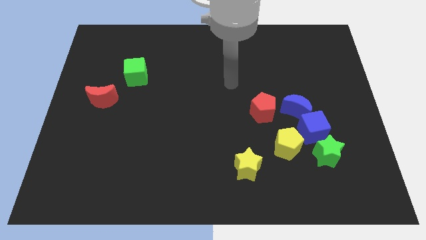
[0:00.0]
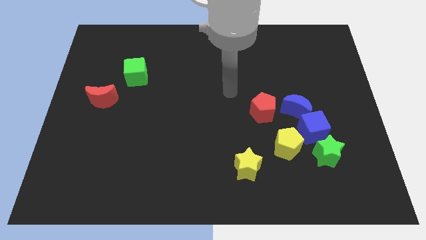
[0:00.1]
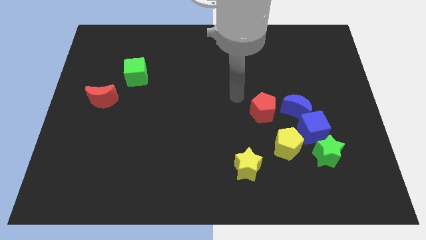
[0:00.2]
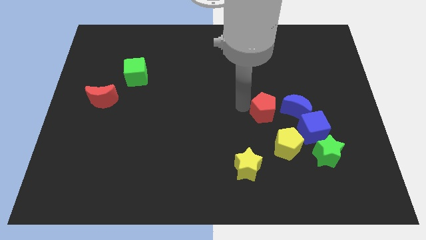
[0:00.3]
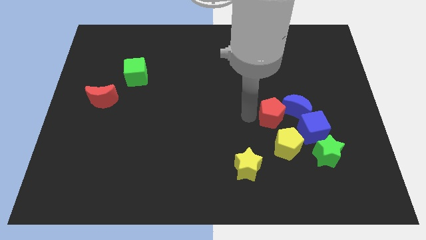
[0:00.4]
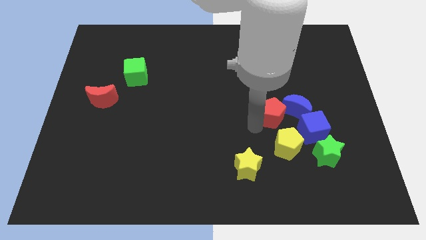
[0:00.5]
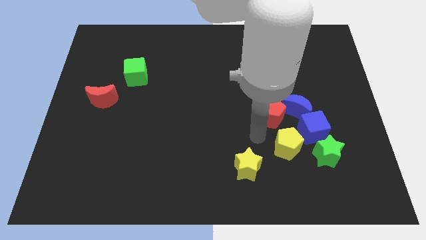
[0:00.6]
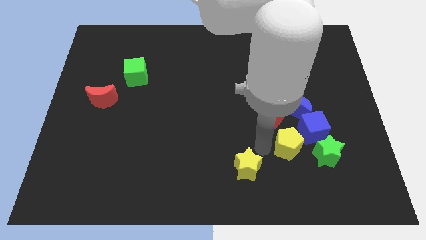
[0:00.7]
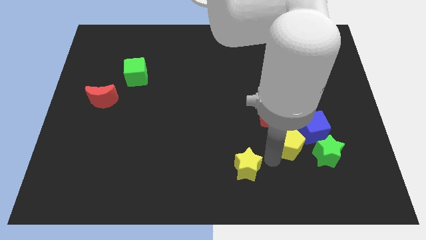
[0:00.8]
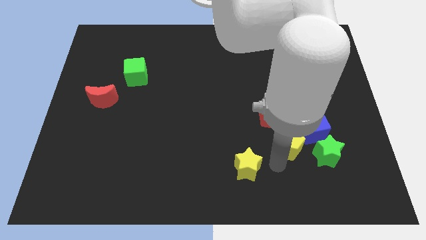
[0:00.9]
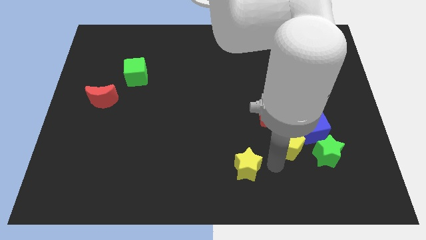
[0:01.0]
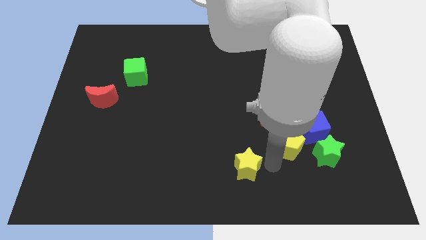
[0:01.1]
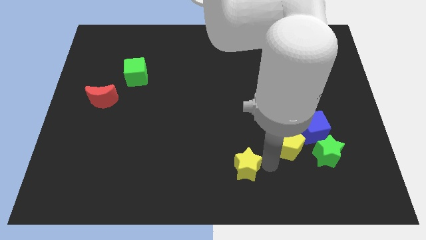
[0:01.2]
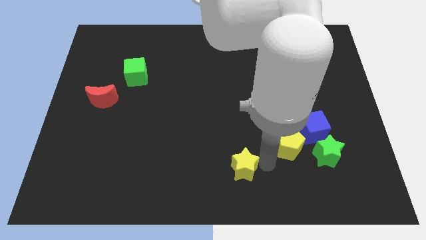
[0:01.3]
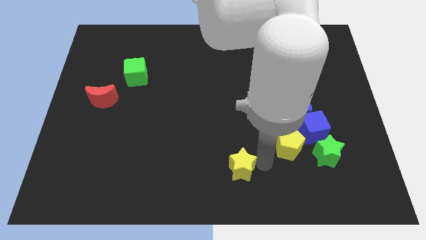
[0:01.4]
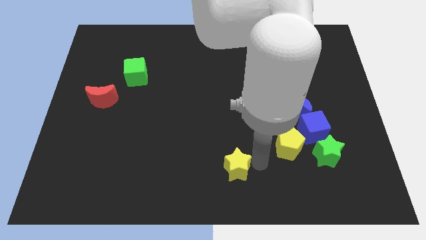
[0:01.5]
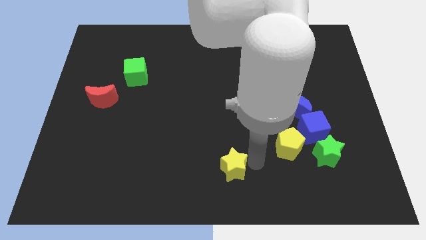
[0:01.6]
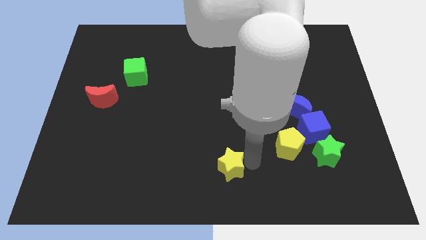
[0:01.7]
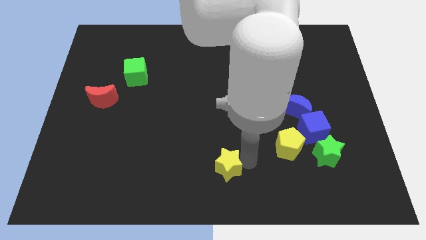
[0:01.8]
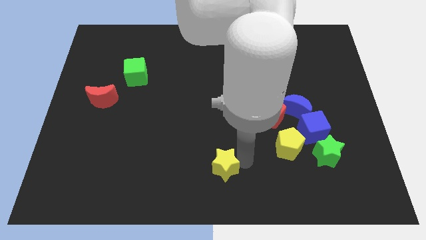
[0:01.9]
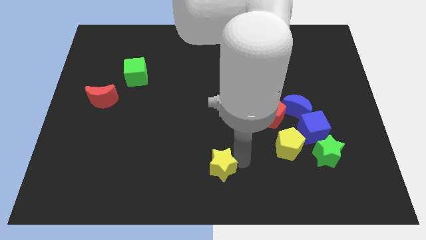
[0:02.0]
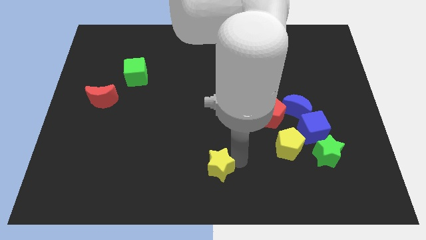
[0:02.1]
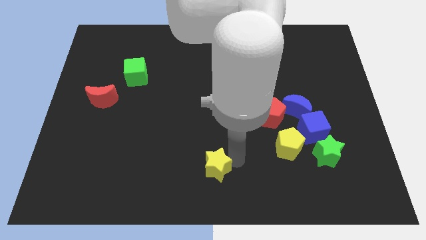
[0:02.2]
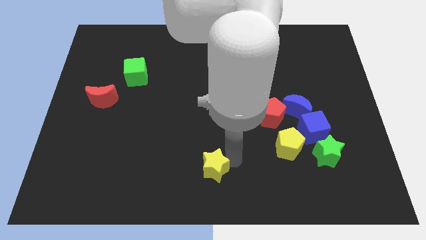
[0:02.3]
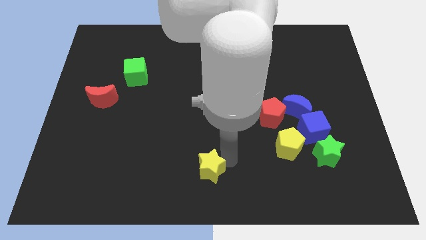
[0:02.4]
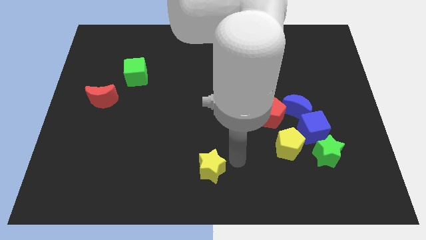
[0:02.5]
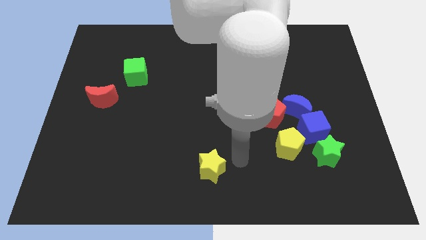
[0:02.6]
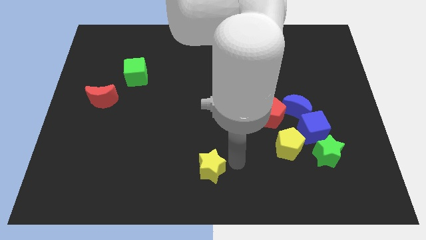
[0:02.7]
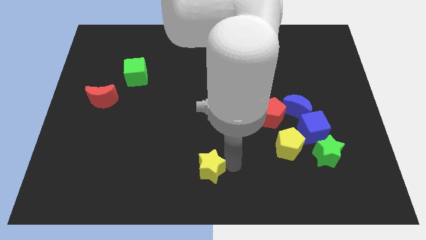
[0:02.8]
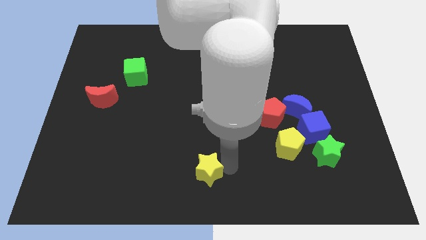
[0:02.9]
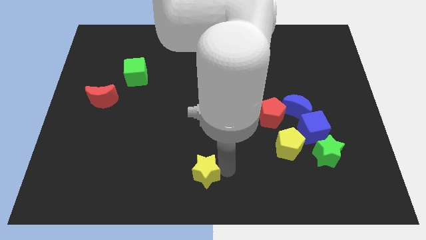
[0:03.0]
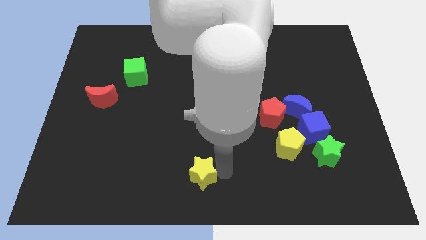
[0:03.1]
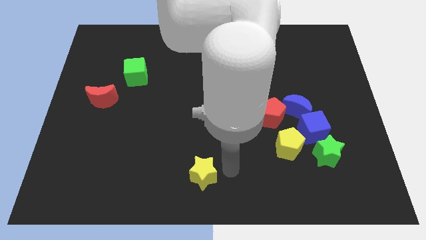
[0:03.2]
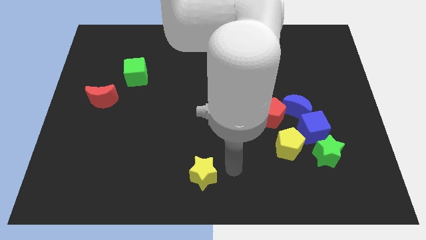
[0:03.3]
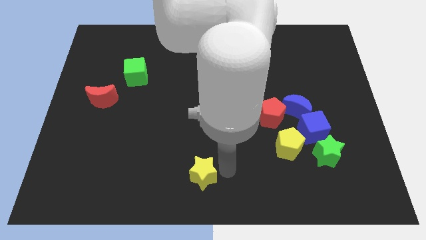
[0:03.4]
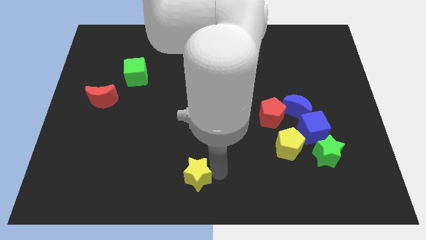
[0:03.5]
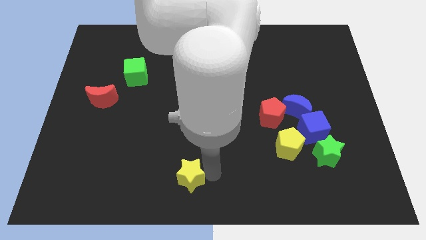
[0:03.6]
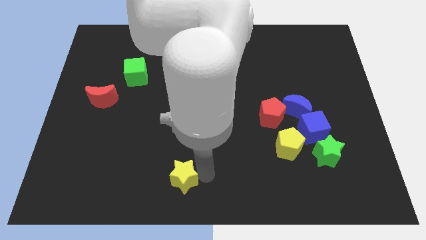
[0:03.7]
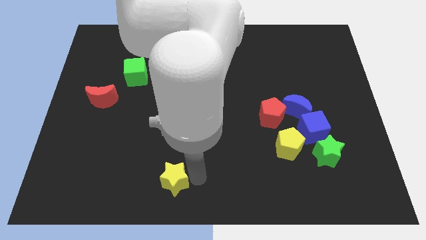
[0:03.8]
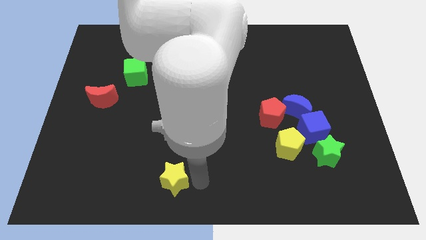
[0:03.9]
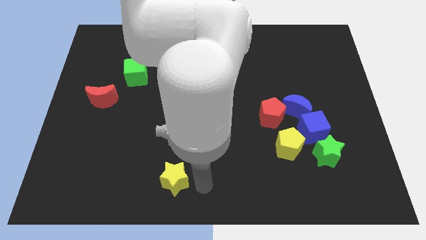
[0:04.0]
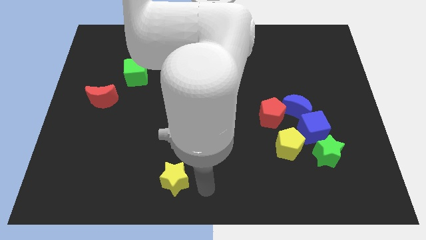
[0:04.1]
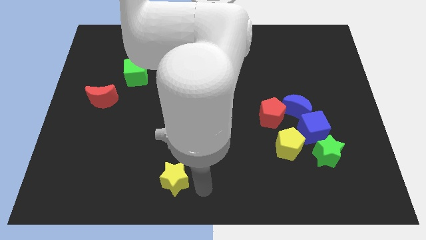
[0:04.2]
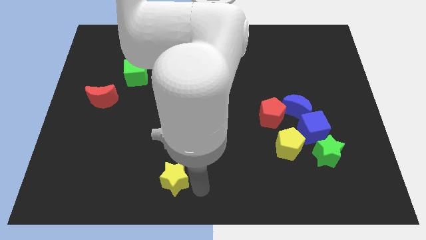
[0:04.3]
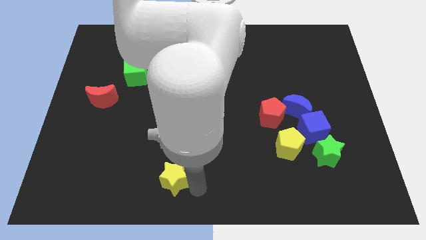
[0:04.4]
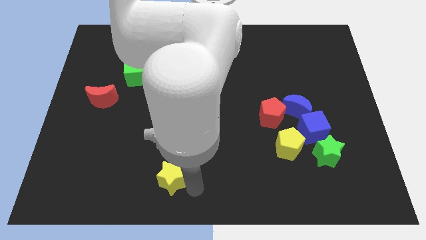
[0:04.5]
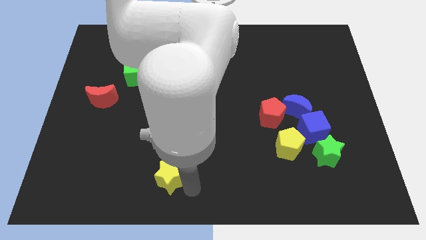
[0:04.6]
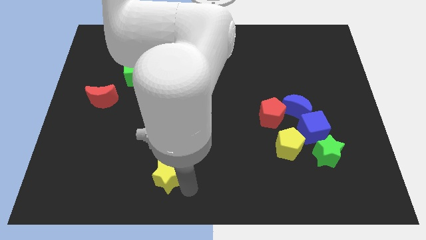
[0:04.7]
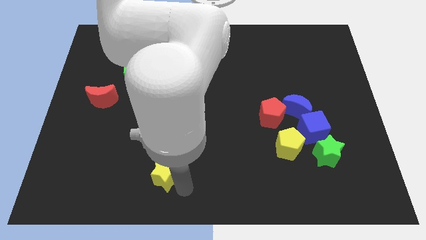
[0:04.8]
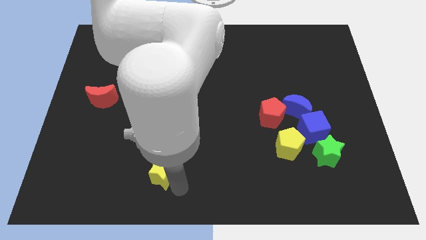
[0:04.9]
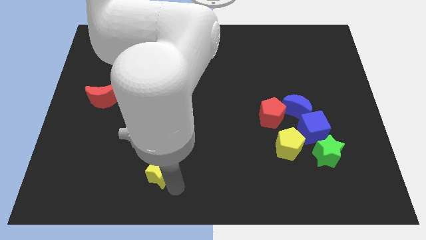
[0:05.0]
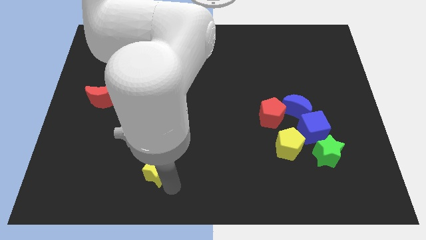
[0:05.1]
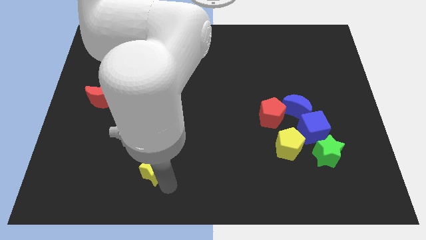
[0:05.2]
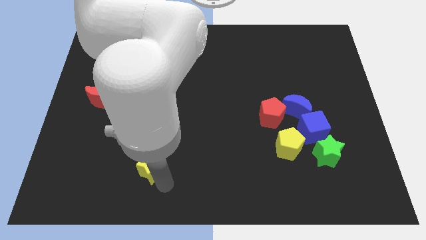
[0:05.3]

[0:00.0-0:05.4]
slide the yellow star left

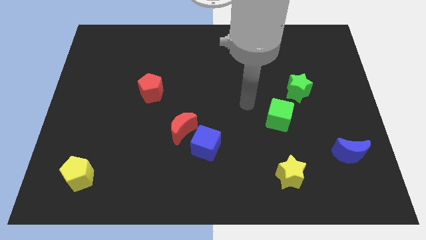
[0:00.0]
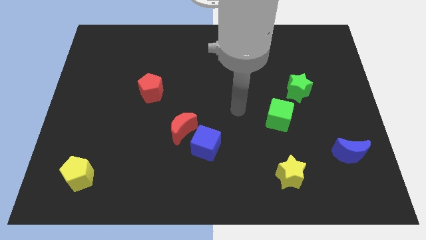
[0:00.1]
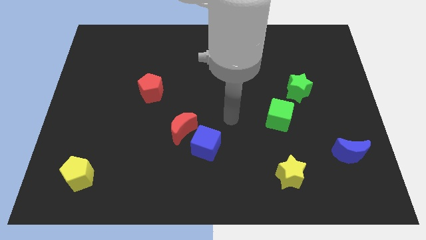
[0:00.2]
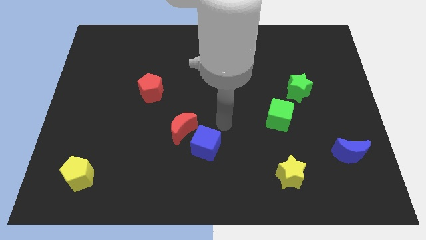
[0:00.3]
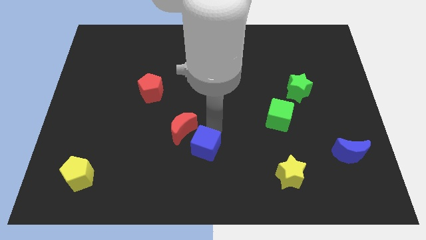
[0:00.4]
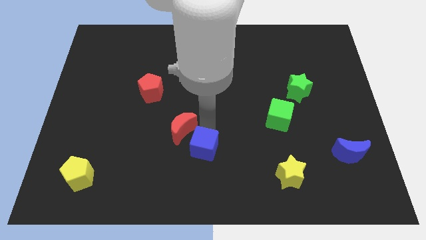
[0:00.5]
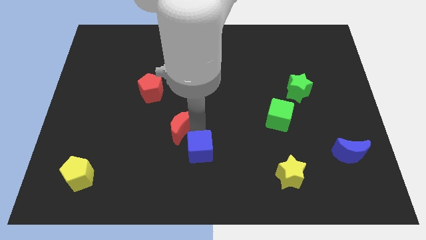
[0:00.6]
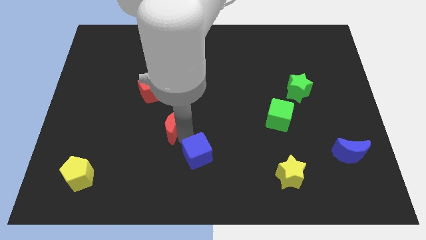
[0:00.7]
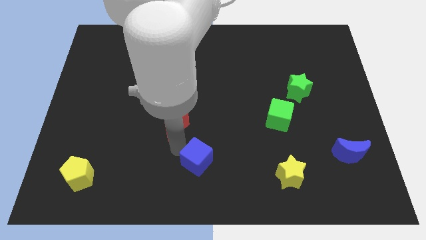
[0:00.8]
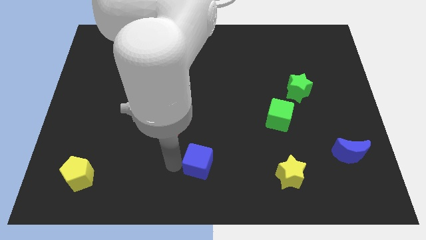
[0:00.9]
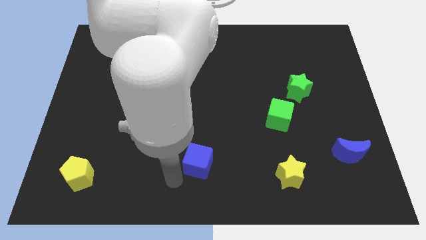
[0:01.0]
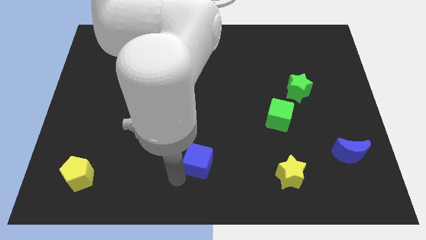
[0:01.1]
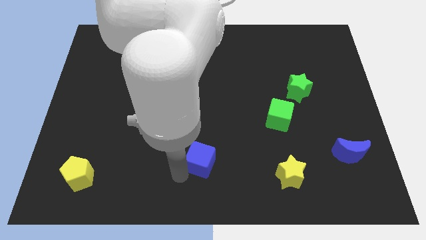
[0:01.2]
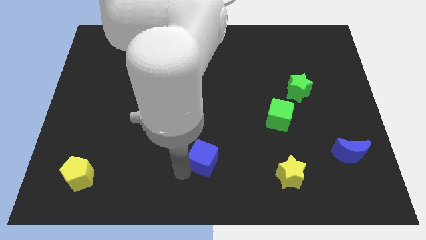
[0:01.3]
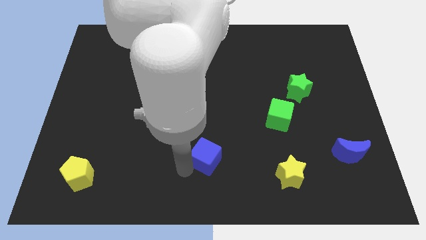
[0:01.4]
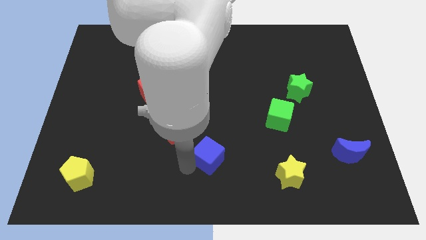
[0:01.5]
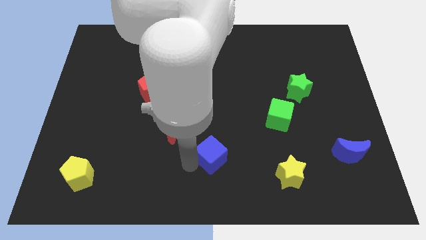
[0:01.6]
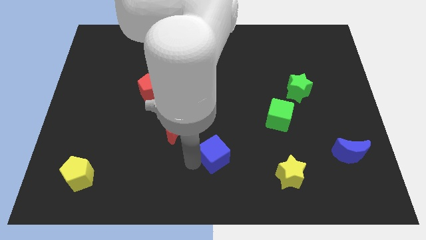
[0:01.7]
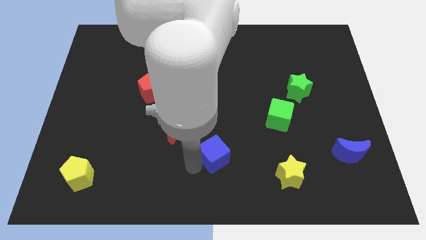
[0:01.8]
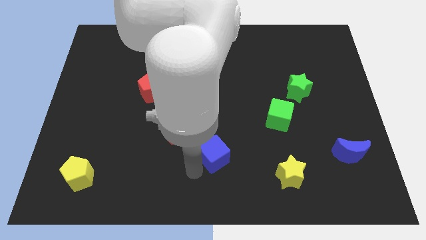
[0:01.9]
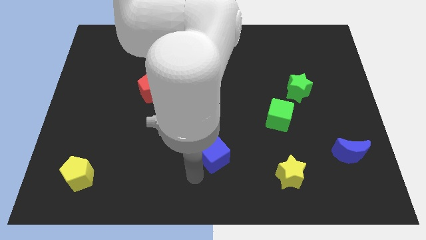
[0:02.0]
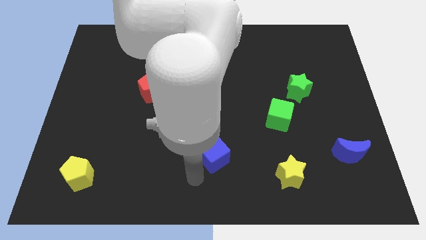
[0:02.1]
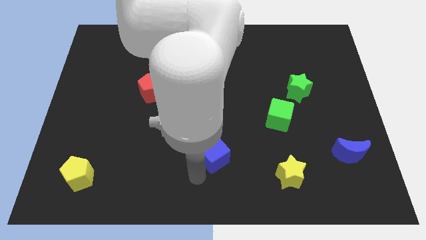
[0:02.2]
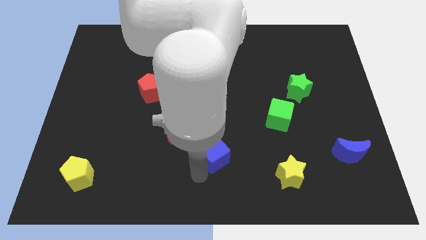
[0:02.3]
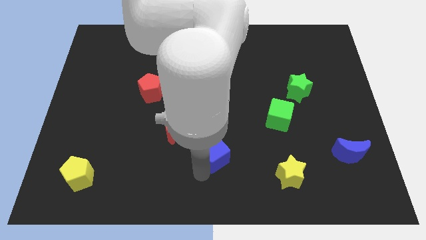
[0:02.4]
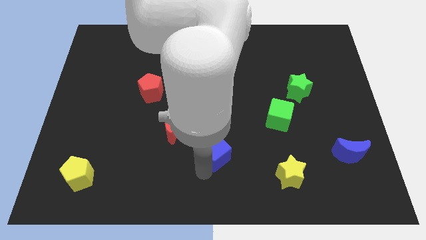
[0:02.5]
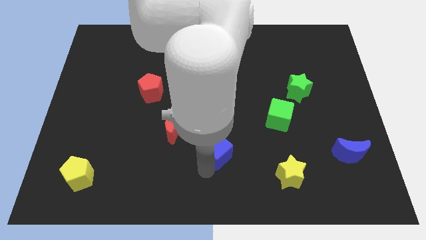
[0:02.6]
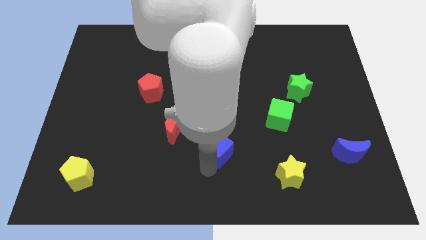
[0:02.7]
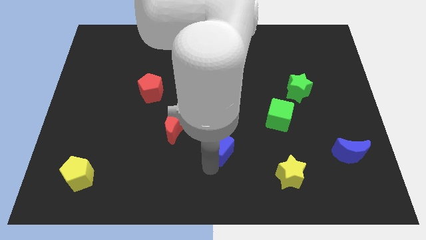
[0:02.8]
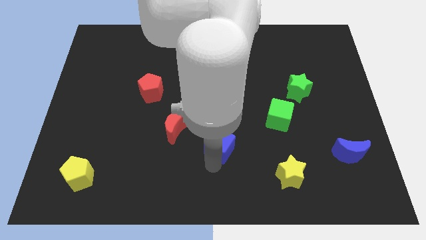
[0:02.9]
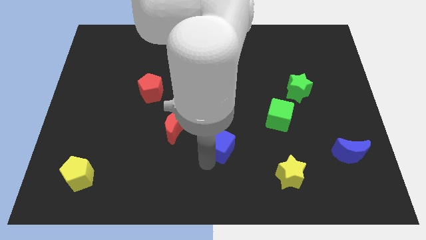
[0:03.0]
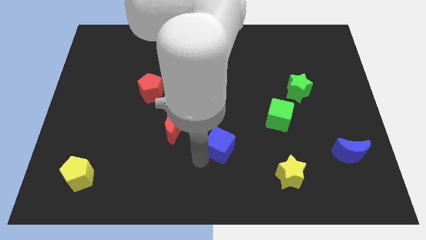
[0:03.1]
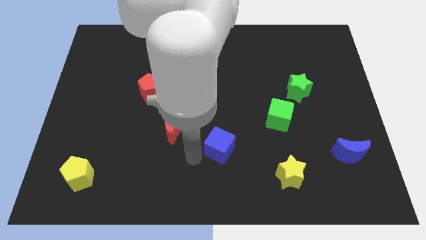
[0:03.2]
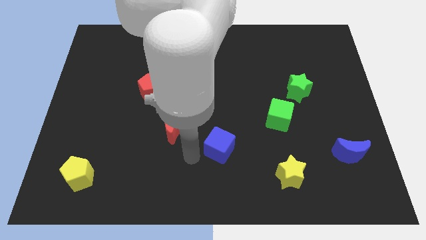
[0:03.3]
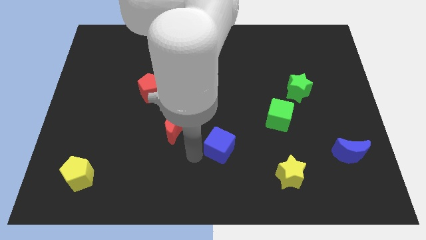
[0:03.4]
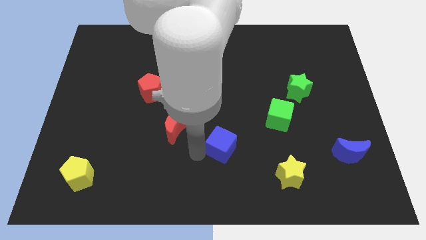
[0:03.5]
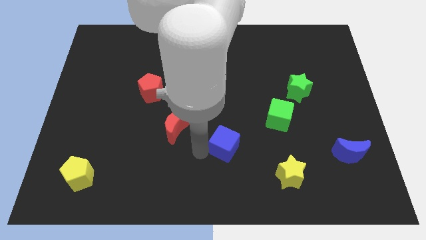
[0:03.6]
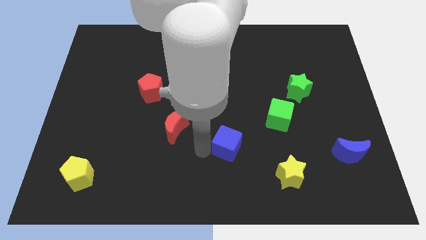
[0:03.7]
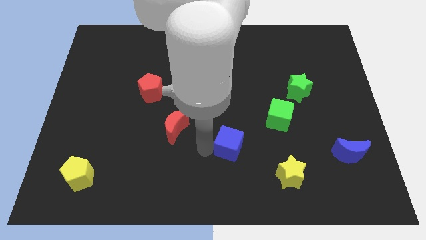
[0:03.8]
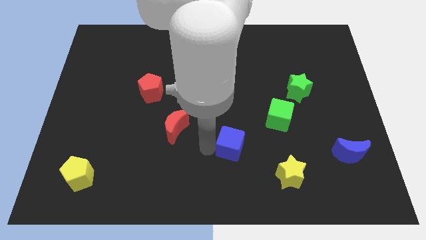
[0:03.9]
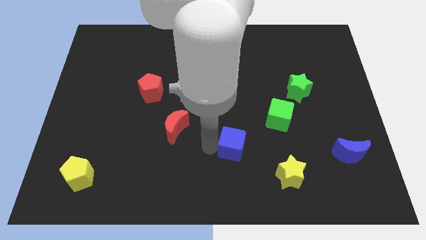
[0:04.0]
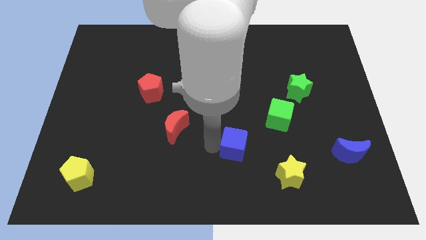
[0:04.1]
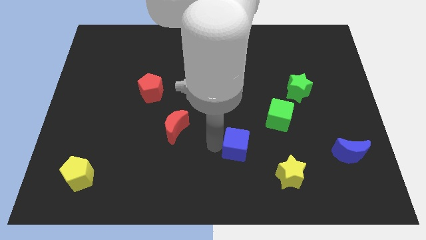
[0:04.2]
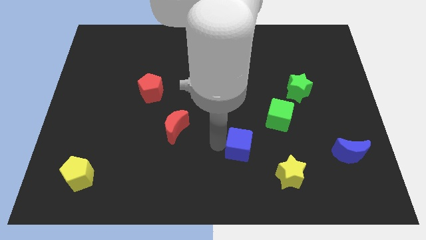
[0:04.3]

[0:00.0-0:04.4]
slide the blue cube a bit to the right
